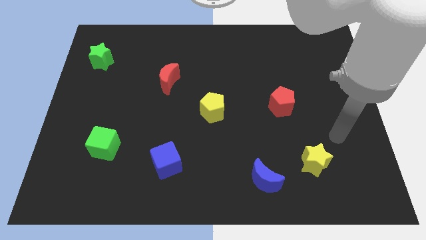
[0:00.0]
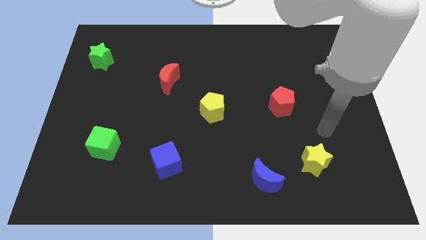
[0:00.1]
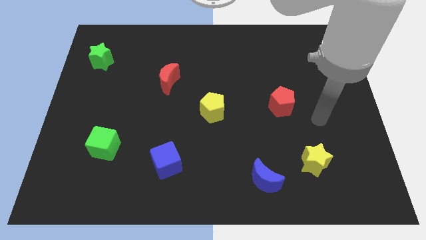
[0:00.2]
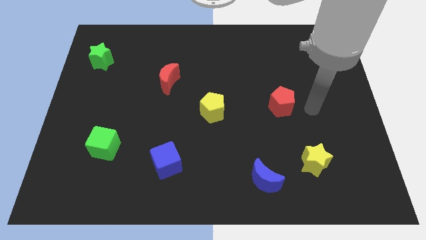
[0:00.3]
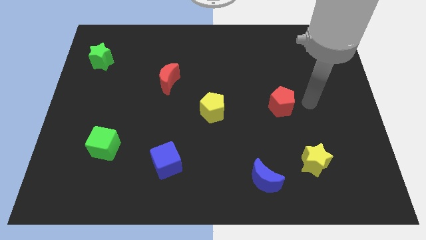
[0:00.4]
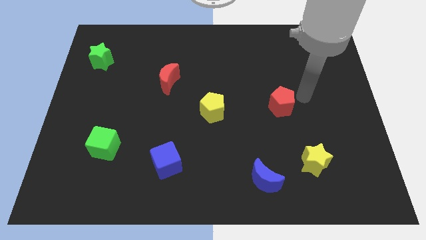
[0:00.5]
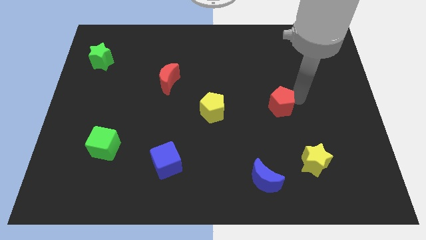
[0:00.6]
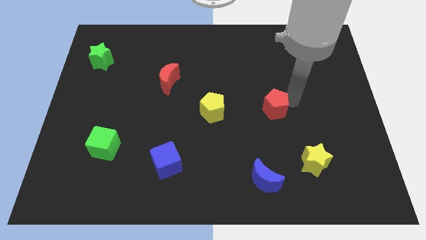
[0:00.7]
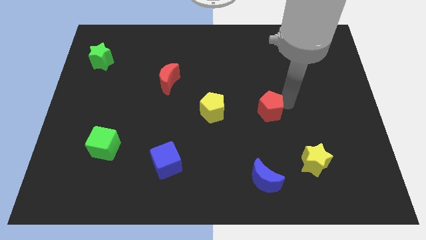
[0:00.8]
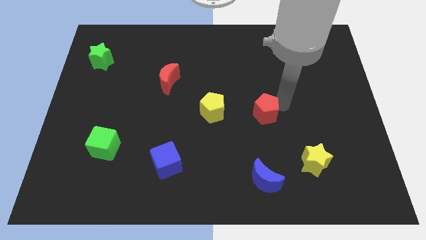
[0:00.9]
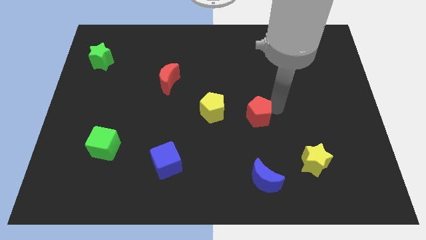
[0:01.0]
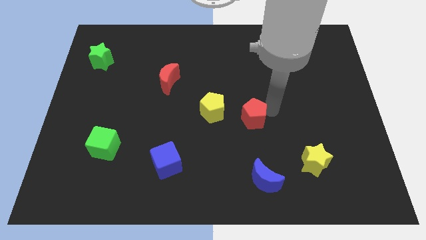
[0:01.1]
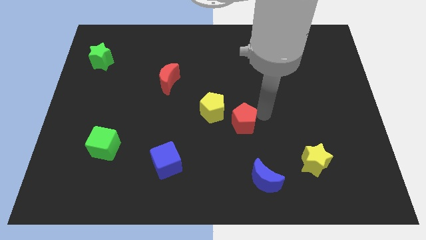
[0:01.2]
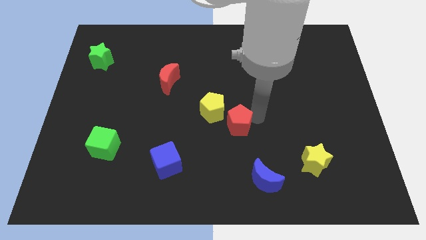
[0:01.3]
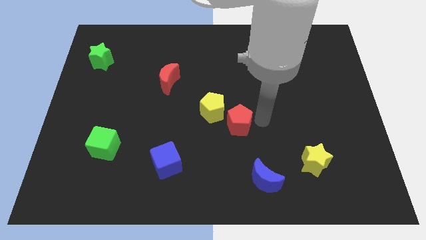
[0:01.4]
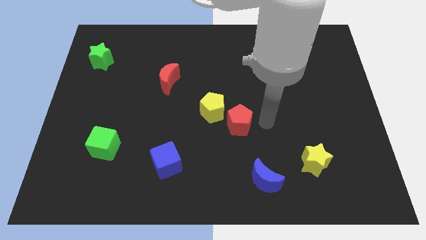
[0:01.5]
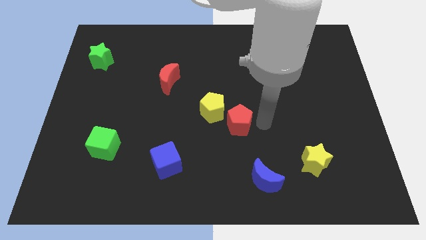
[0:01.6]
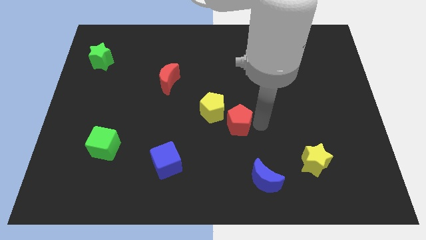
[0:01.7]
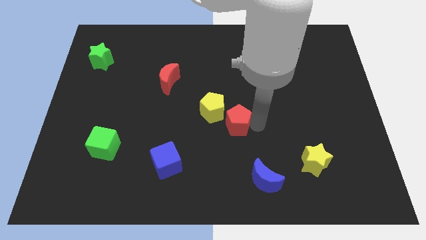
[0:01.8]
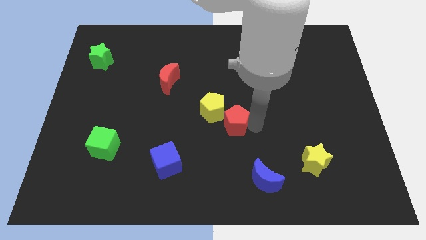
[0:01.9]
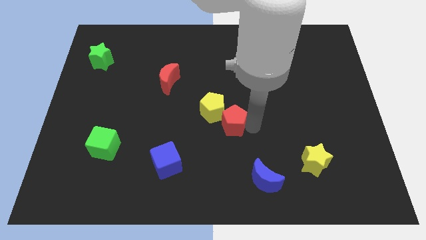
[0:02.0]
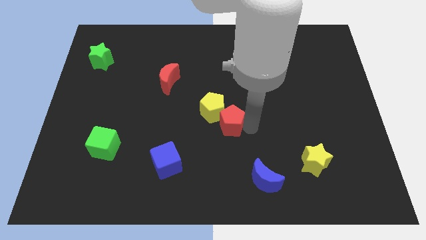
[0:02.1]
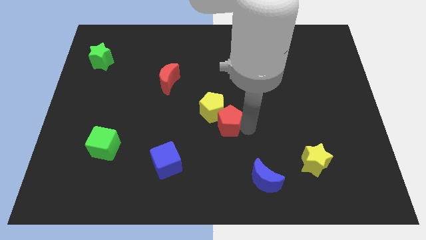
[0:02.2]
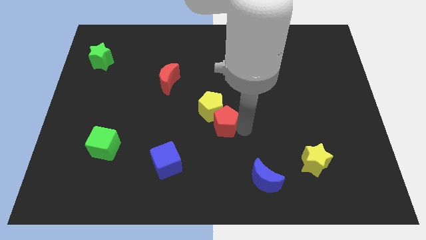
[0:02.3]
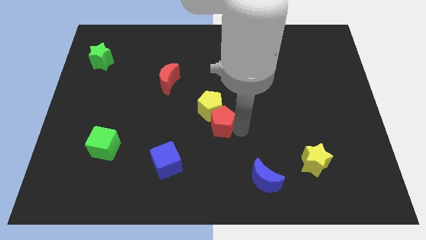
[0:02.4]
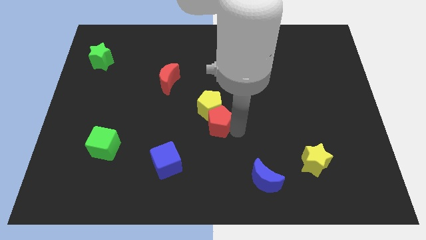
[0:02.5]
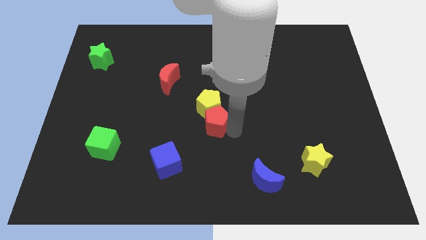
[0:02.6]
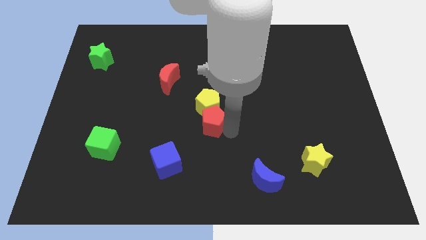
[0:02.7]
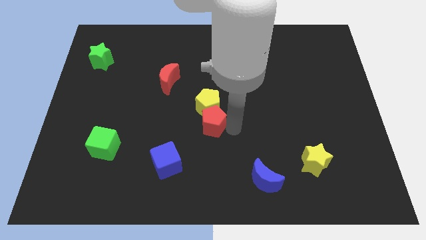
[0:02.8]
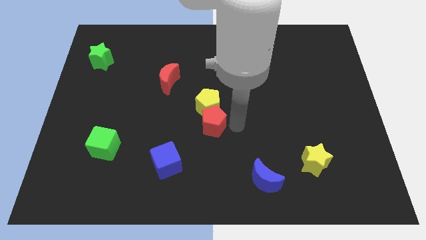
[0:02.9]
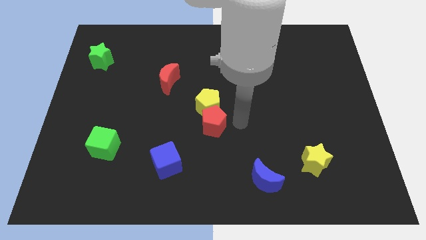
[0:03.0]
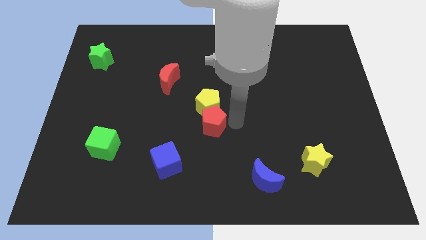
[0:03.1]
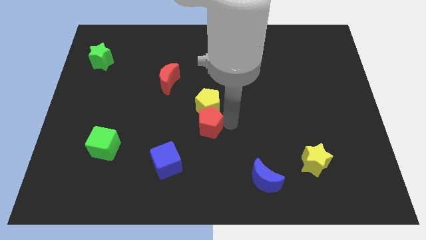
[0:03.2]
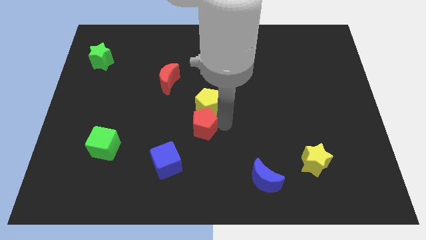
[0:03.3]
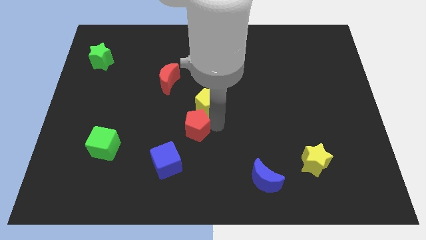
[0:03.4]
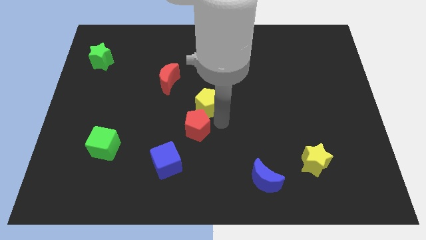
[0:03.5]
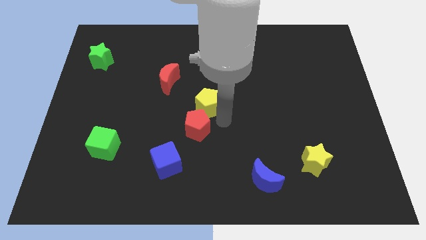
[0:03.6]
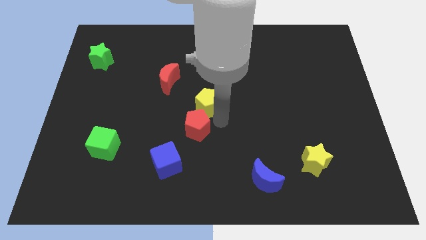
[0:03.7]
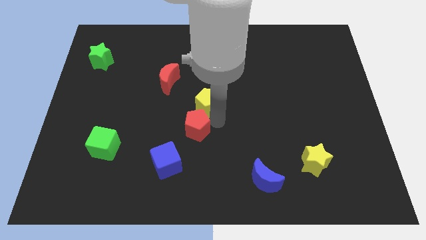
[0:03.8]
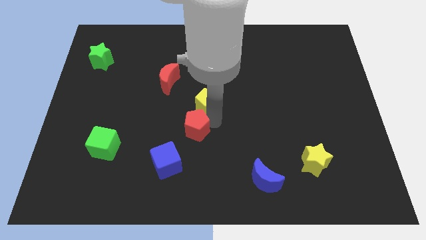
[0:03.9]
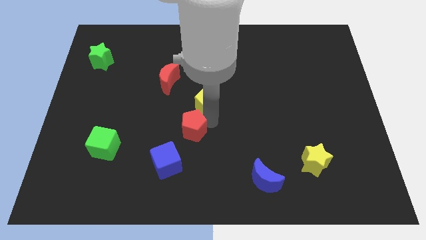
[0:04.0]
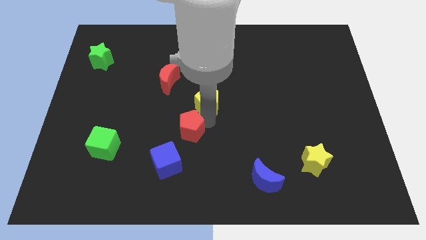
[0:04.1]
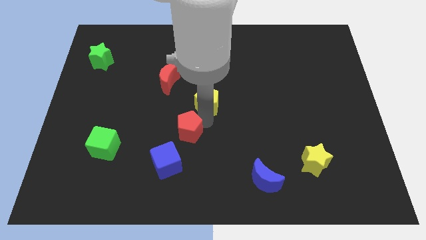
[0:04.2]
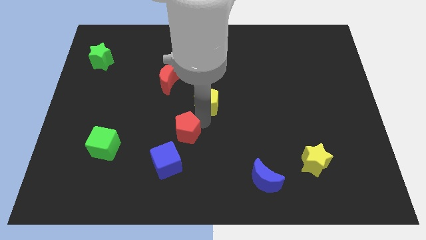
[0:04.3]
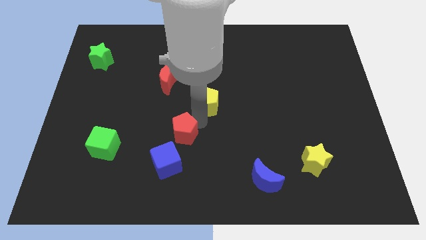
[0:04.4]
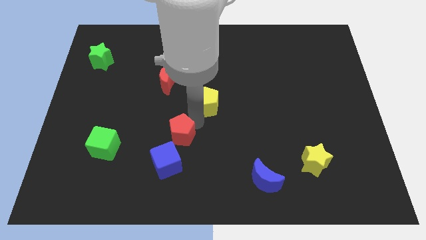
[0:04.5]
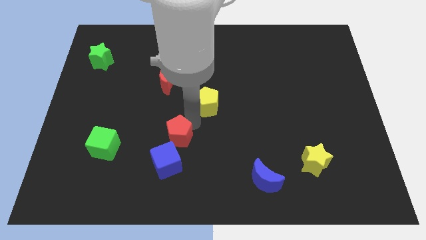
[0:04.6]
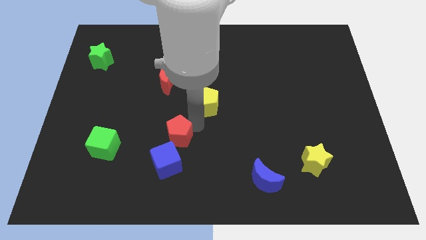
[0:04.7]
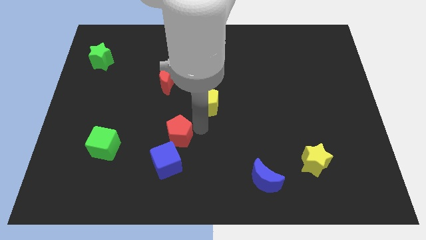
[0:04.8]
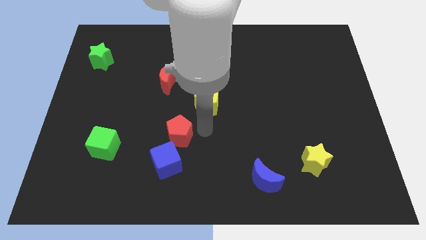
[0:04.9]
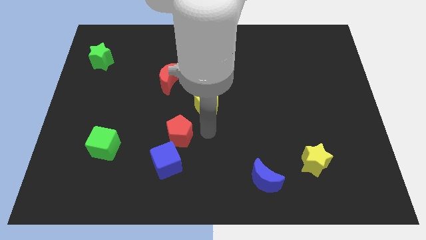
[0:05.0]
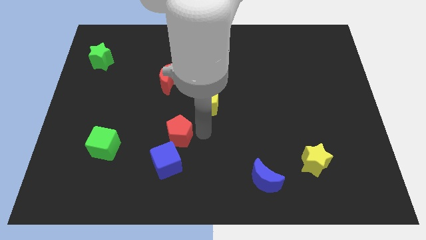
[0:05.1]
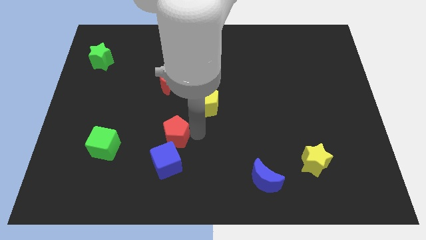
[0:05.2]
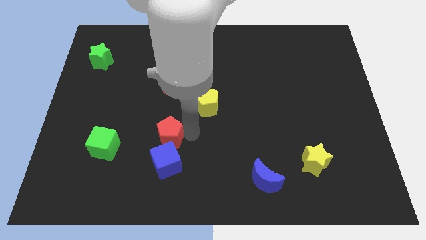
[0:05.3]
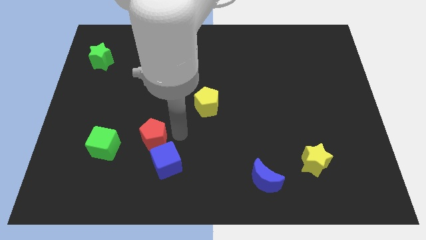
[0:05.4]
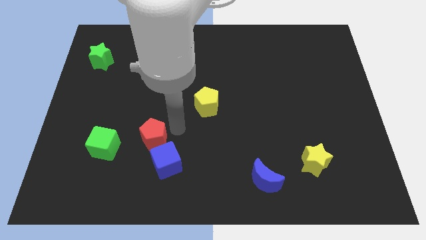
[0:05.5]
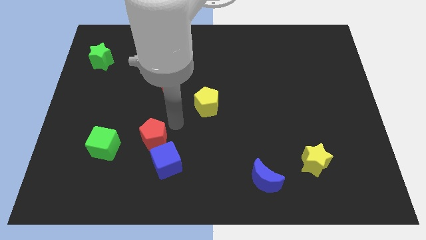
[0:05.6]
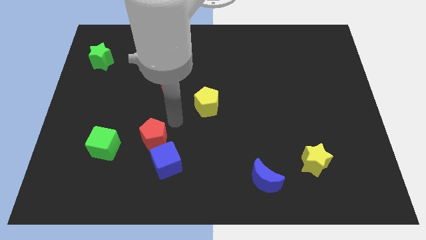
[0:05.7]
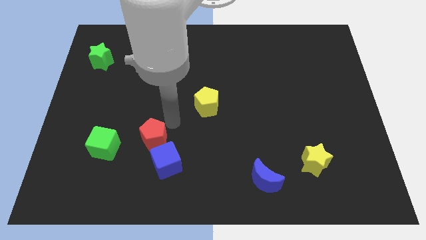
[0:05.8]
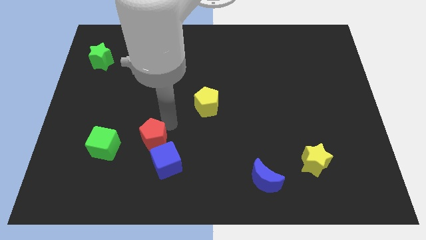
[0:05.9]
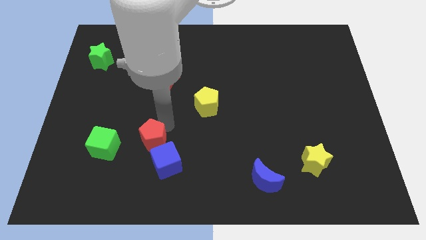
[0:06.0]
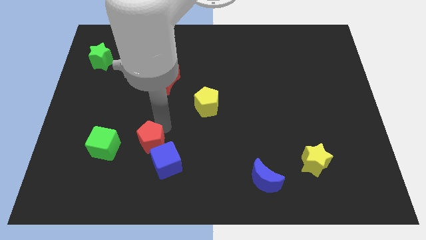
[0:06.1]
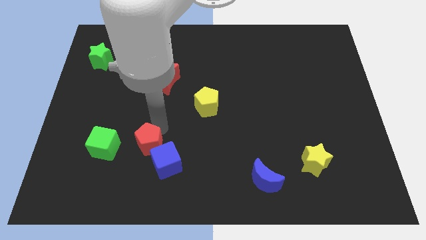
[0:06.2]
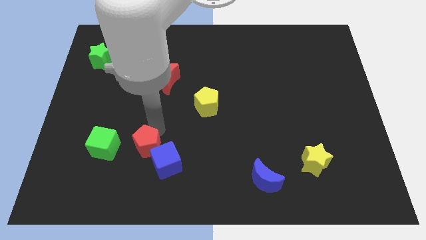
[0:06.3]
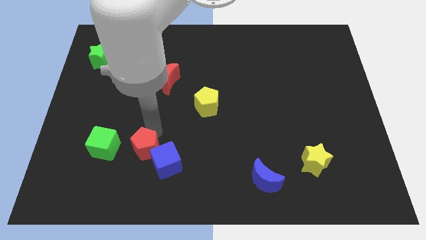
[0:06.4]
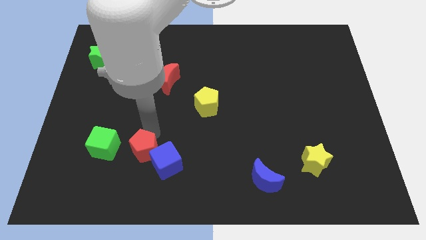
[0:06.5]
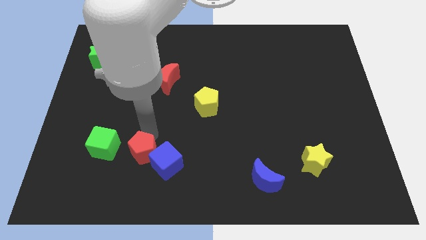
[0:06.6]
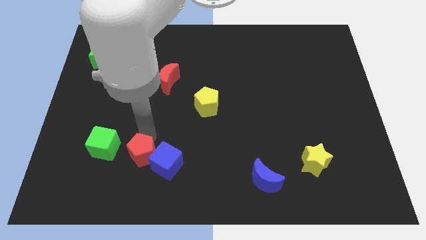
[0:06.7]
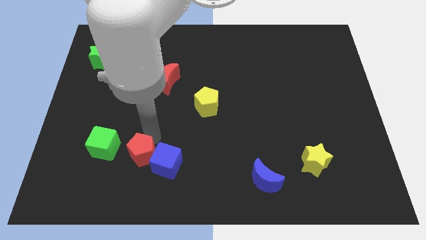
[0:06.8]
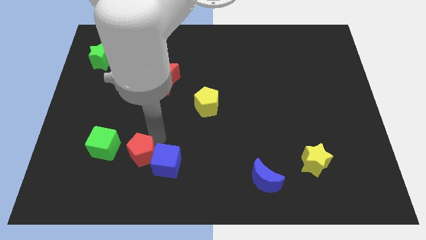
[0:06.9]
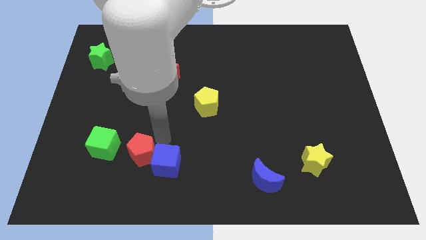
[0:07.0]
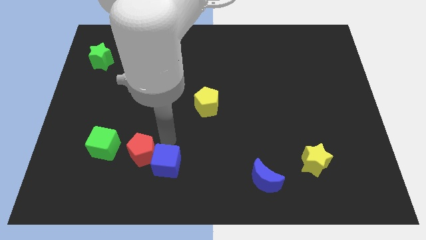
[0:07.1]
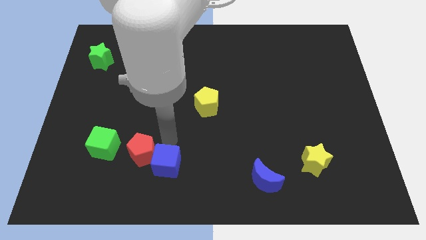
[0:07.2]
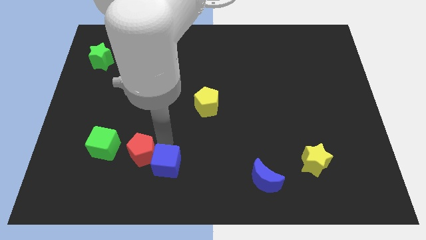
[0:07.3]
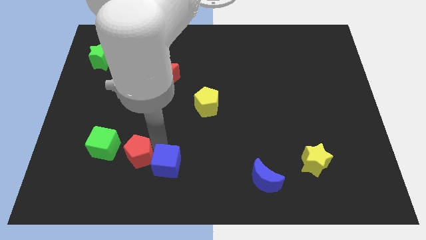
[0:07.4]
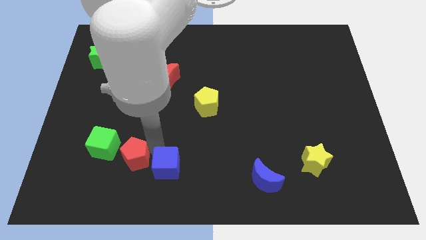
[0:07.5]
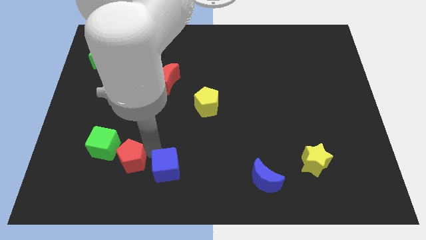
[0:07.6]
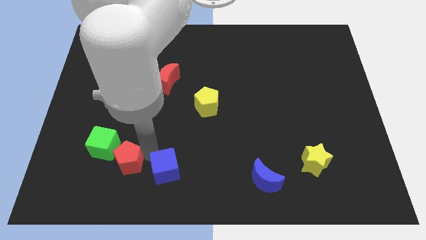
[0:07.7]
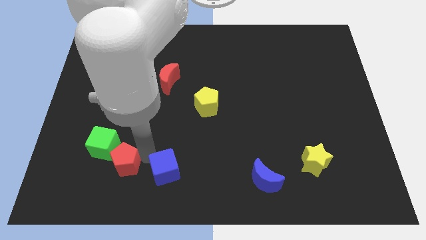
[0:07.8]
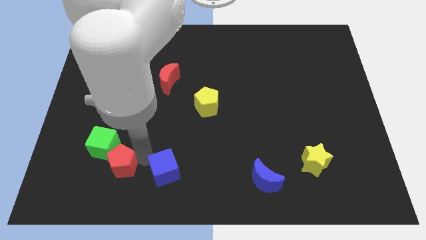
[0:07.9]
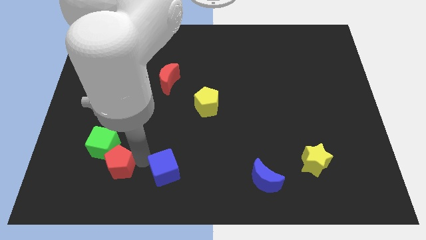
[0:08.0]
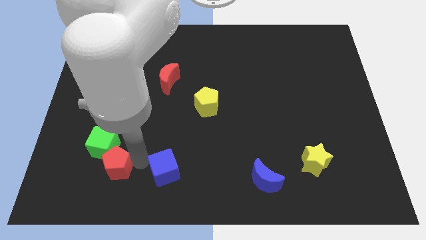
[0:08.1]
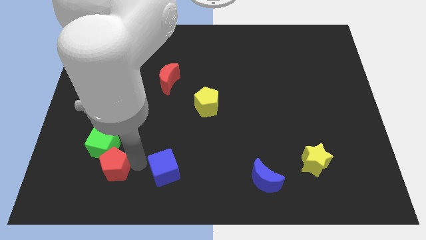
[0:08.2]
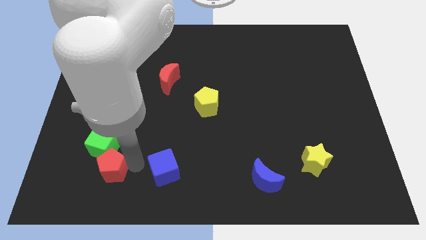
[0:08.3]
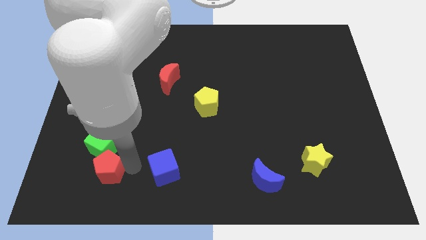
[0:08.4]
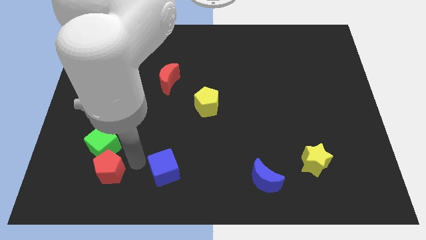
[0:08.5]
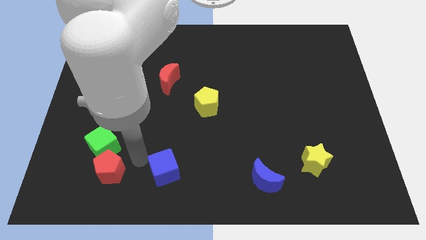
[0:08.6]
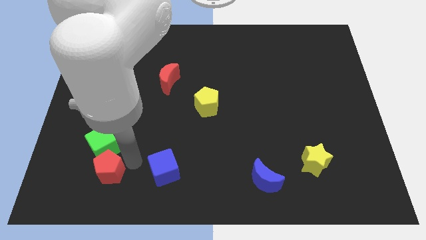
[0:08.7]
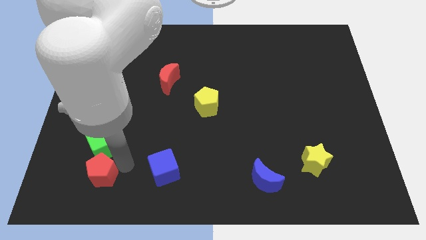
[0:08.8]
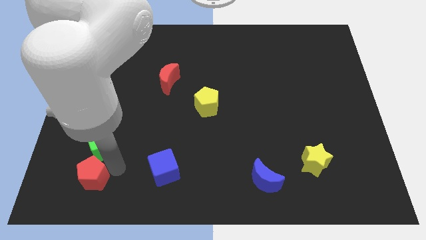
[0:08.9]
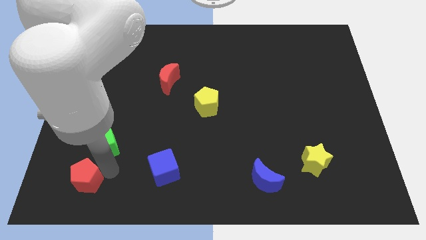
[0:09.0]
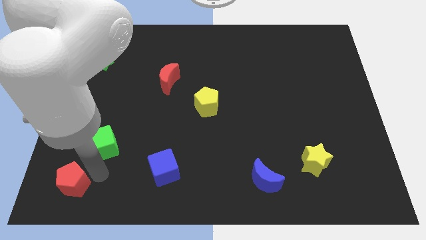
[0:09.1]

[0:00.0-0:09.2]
push the red pentagon to the bottom left corner
